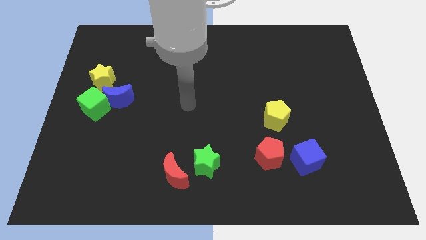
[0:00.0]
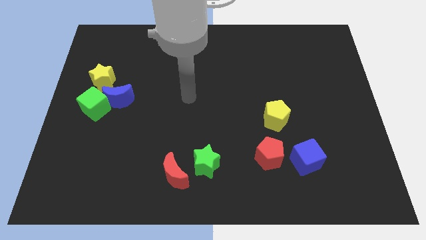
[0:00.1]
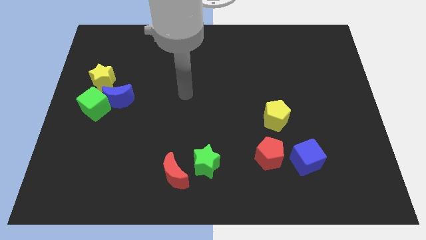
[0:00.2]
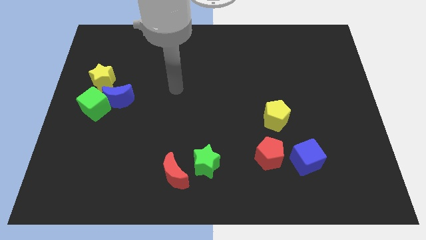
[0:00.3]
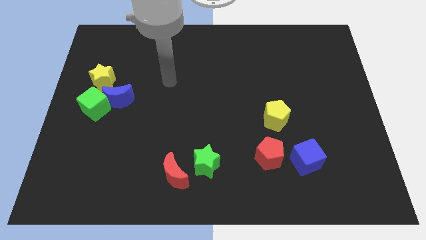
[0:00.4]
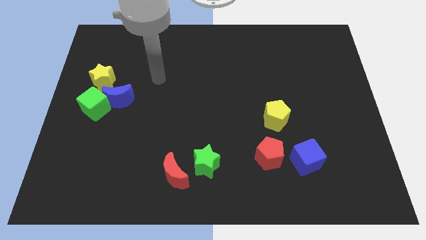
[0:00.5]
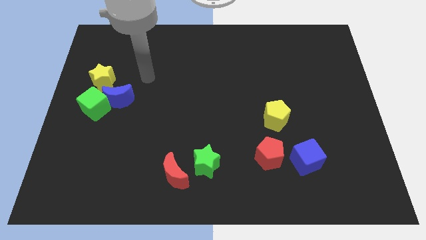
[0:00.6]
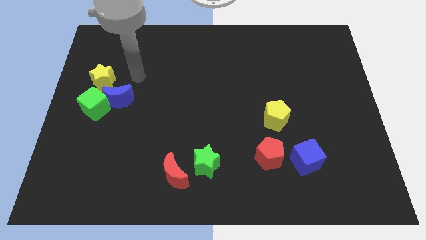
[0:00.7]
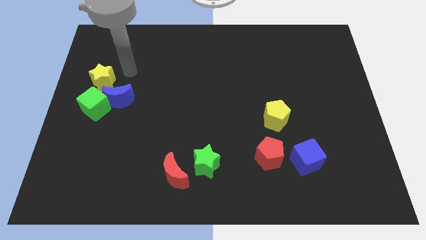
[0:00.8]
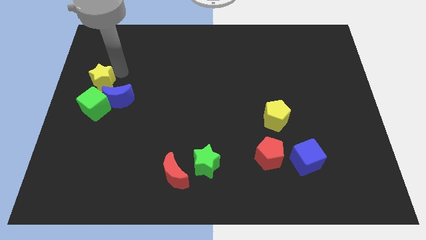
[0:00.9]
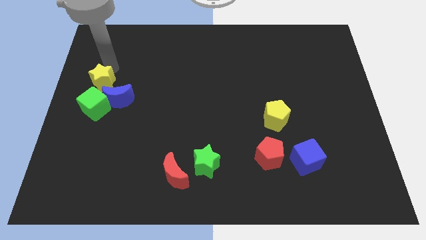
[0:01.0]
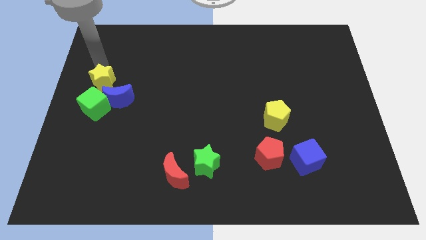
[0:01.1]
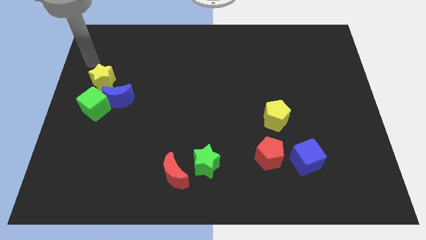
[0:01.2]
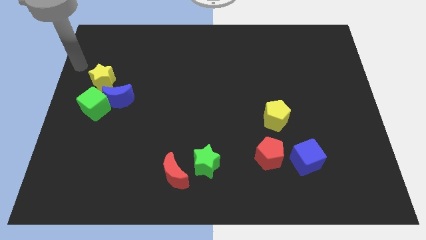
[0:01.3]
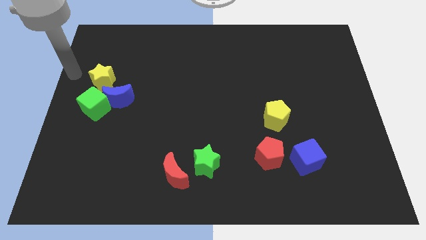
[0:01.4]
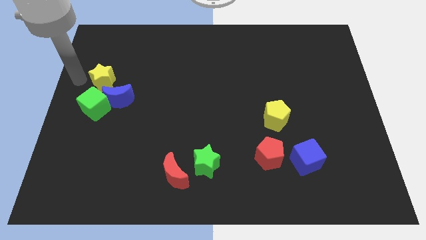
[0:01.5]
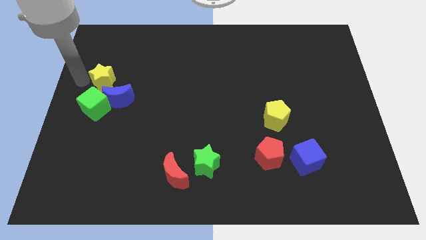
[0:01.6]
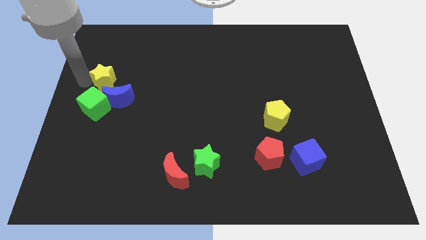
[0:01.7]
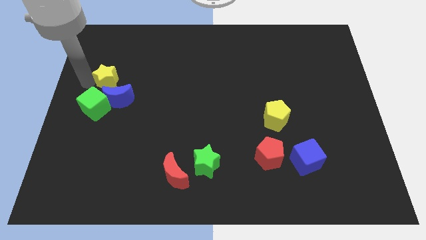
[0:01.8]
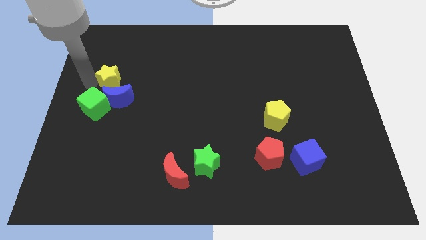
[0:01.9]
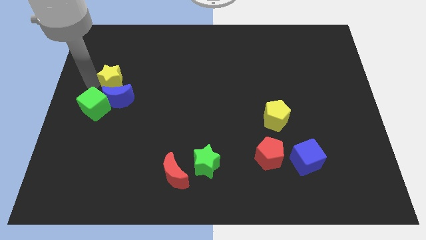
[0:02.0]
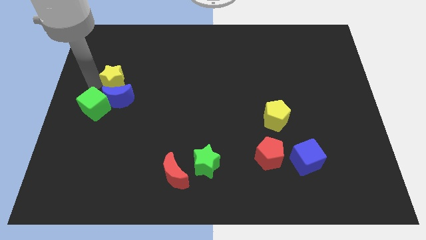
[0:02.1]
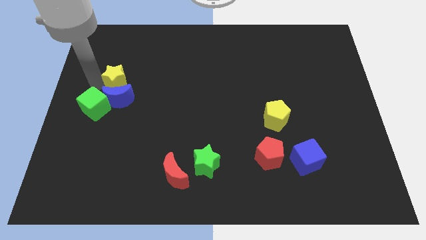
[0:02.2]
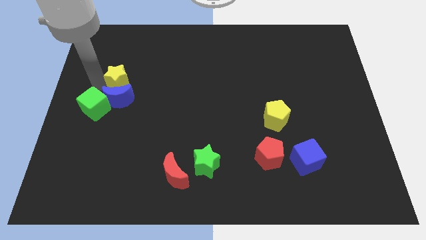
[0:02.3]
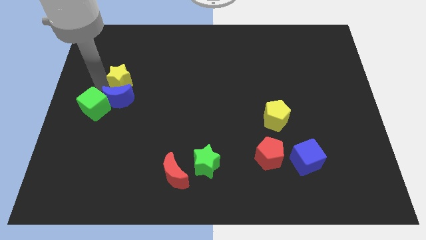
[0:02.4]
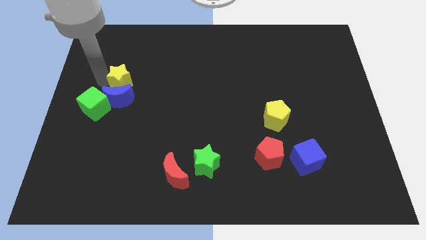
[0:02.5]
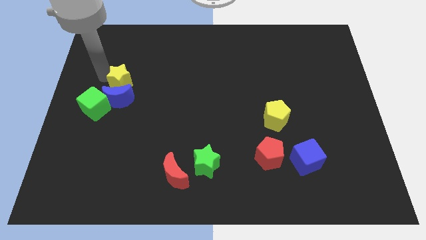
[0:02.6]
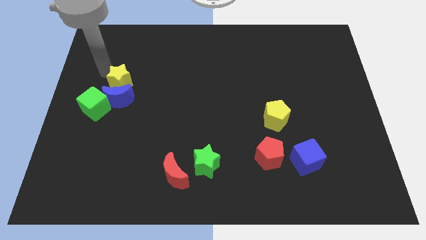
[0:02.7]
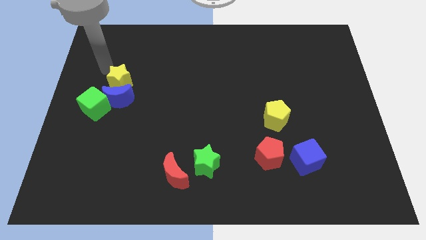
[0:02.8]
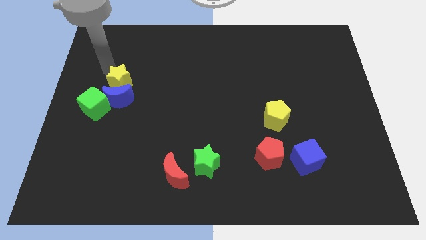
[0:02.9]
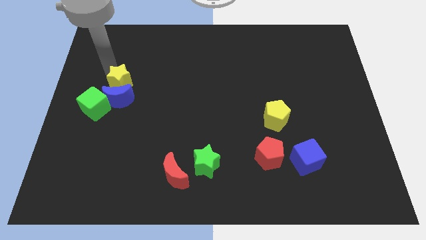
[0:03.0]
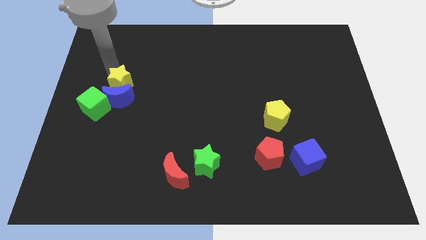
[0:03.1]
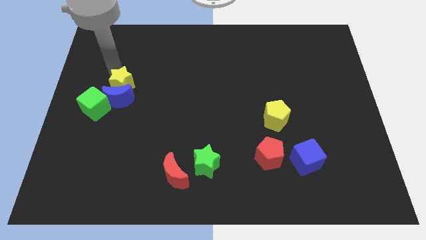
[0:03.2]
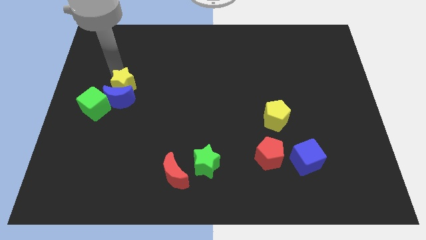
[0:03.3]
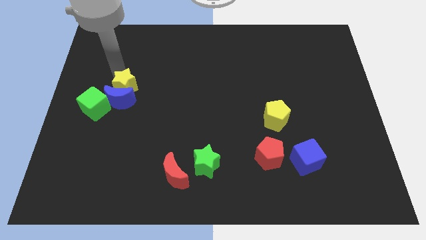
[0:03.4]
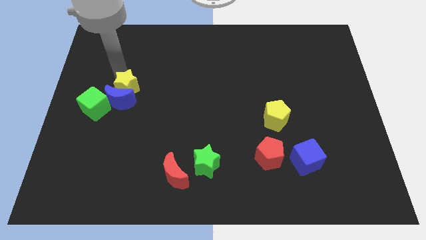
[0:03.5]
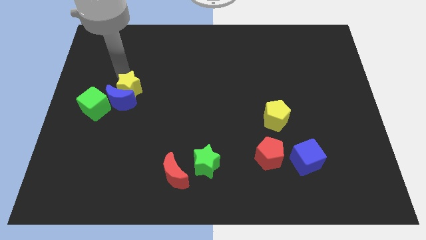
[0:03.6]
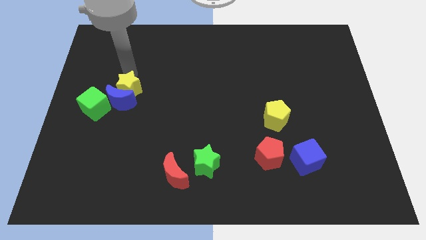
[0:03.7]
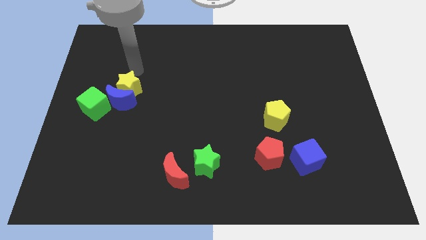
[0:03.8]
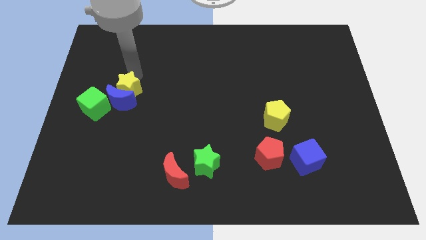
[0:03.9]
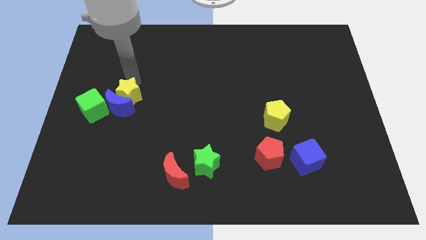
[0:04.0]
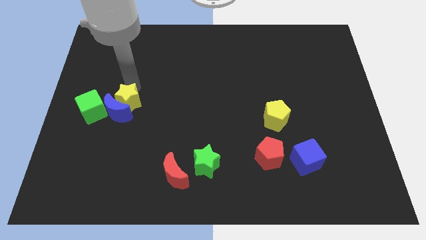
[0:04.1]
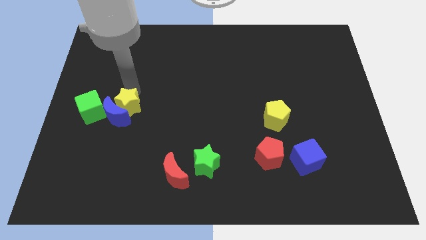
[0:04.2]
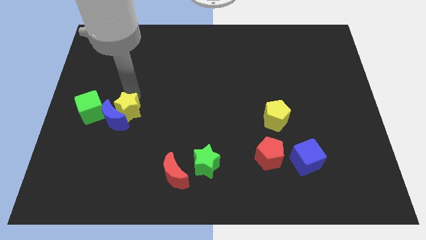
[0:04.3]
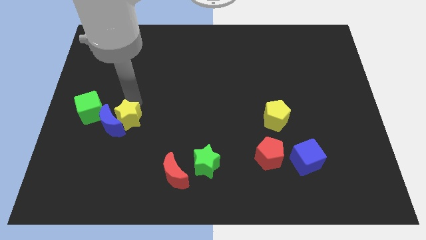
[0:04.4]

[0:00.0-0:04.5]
slide the yellow star a little bit down

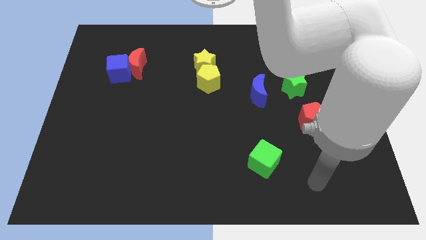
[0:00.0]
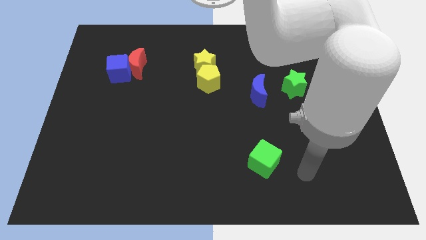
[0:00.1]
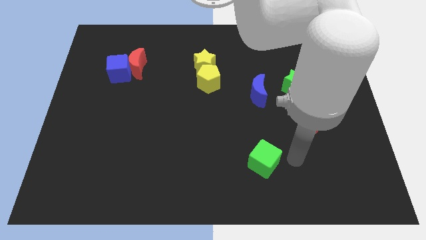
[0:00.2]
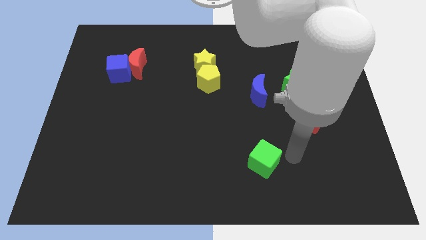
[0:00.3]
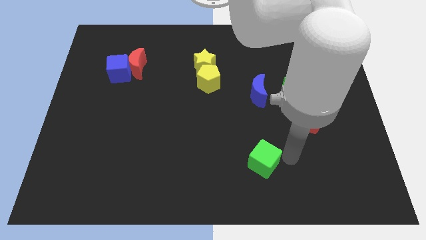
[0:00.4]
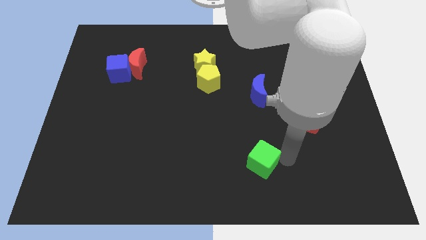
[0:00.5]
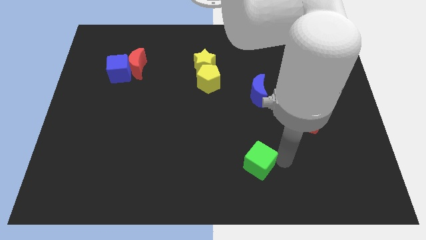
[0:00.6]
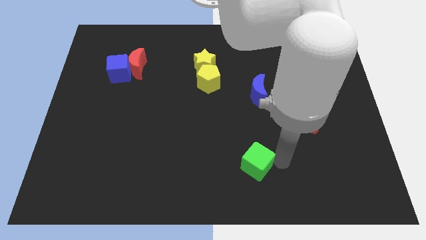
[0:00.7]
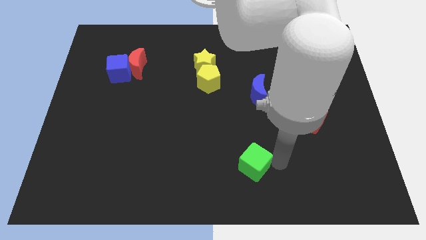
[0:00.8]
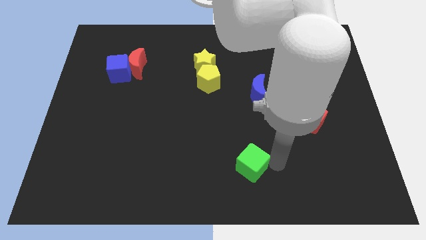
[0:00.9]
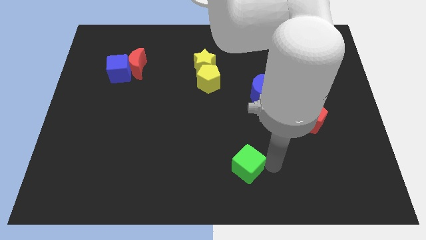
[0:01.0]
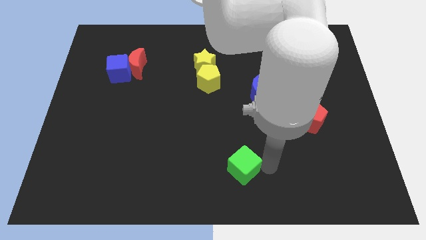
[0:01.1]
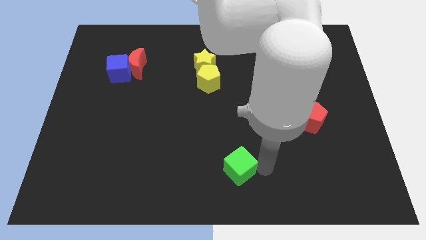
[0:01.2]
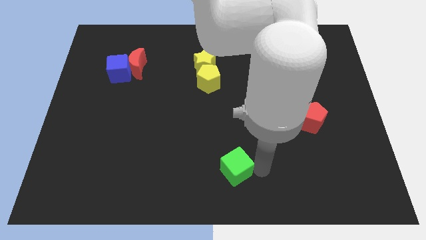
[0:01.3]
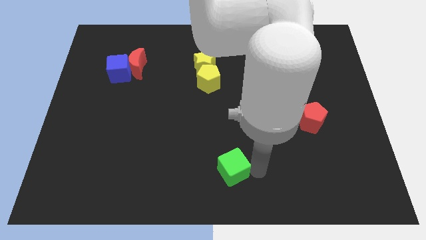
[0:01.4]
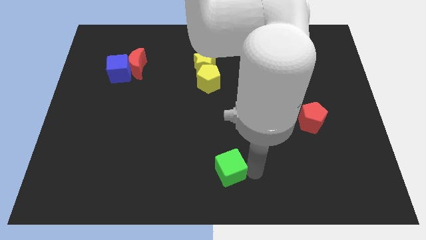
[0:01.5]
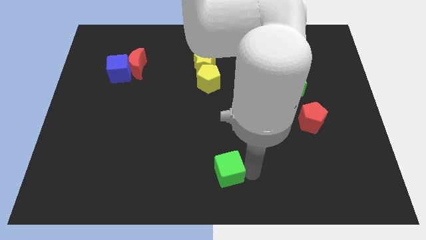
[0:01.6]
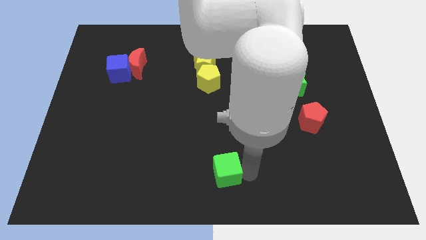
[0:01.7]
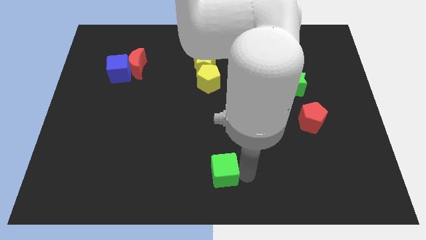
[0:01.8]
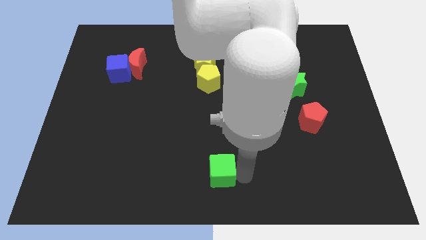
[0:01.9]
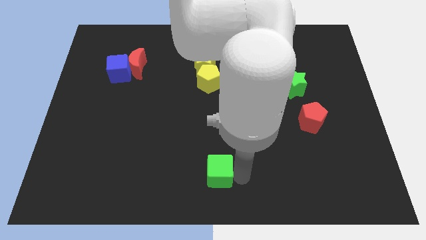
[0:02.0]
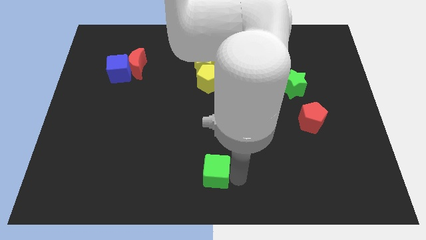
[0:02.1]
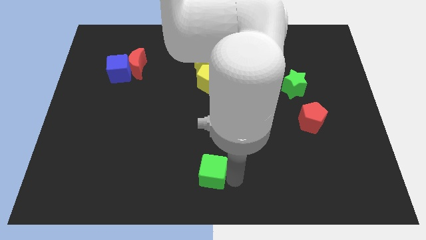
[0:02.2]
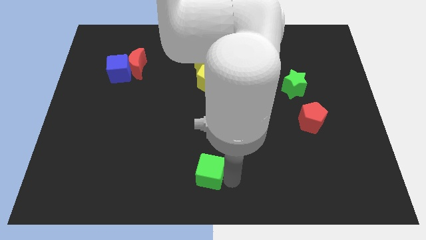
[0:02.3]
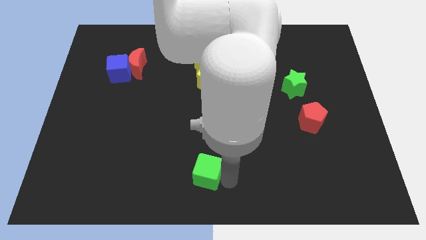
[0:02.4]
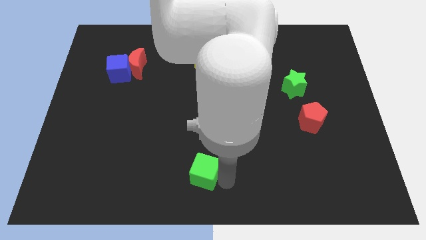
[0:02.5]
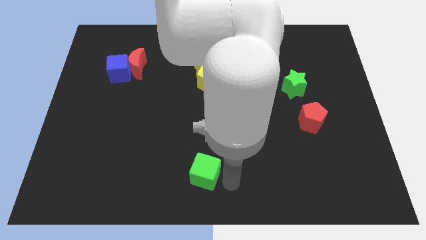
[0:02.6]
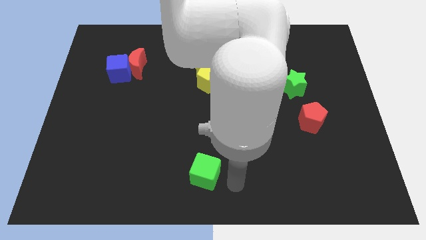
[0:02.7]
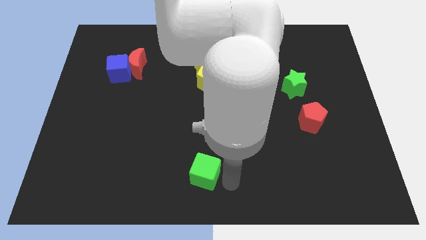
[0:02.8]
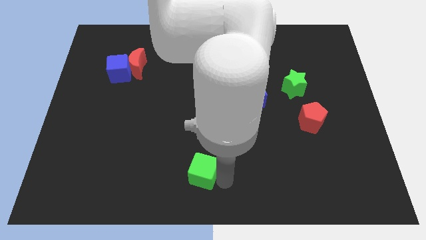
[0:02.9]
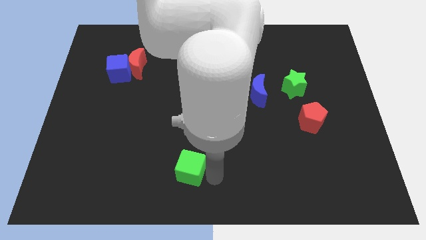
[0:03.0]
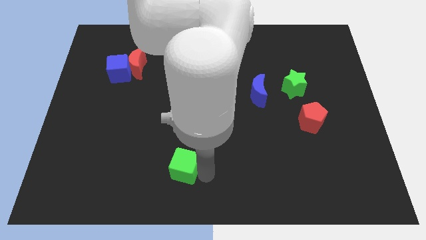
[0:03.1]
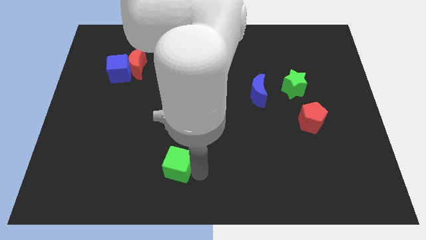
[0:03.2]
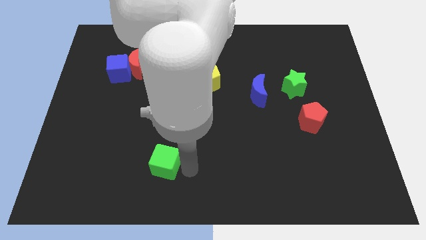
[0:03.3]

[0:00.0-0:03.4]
slide the green cube to the left
